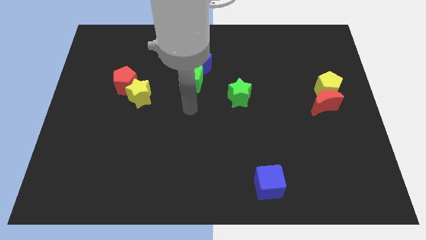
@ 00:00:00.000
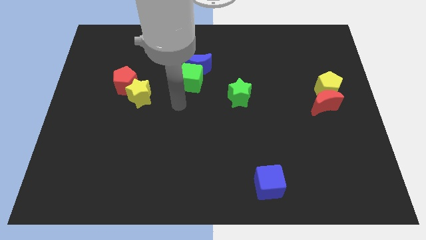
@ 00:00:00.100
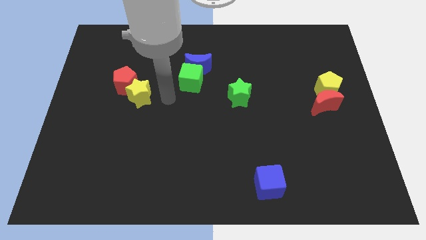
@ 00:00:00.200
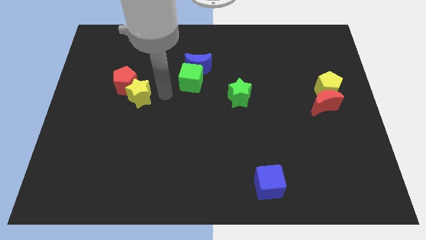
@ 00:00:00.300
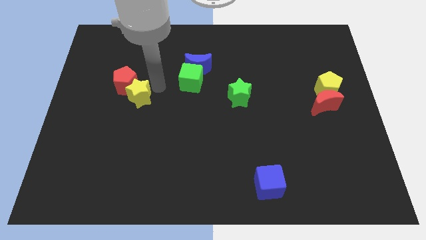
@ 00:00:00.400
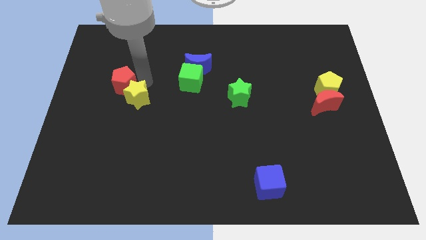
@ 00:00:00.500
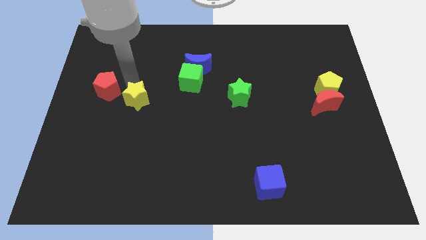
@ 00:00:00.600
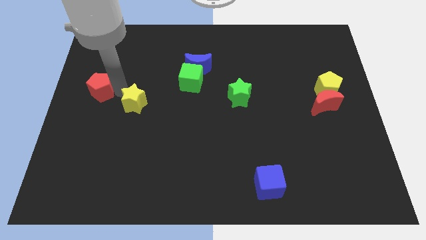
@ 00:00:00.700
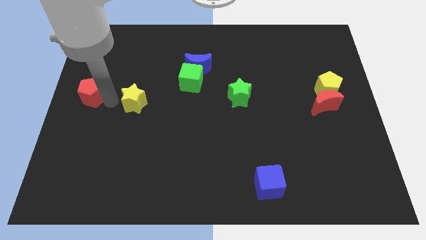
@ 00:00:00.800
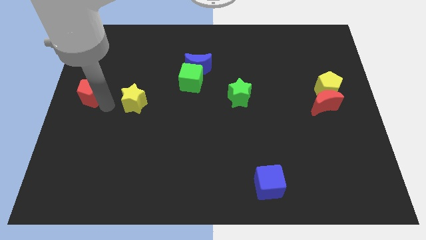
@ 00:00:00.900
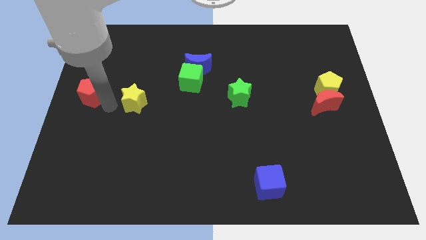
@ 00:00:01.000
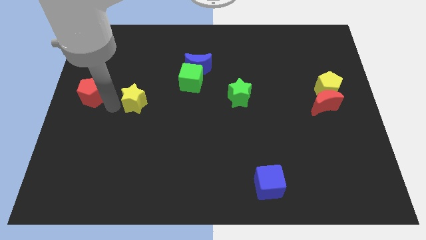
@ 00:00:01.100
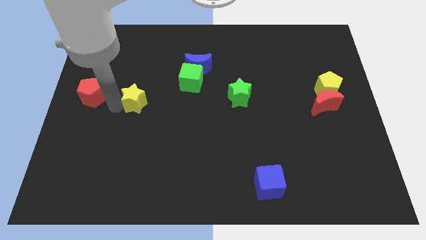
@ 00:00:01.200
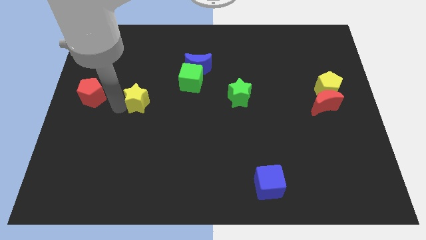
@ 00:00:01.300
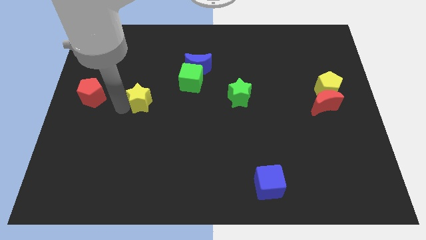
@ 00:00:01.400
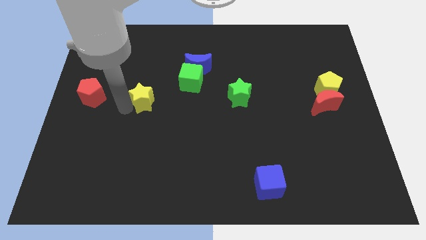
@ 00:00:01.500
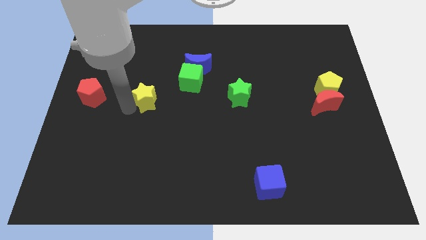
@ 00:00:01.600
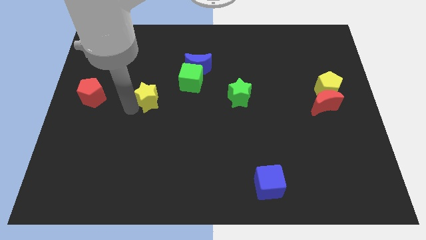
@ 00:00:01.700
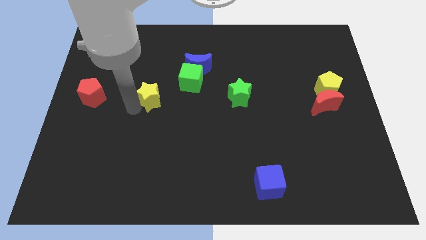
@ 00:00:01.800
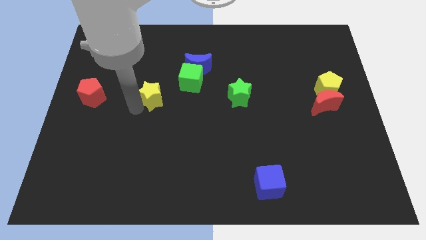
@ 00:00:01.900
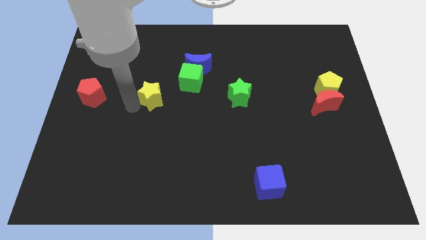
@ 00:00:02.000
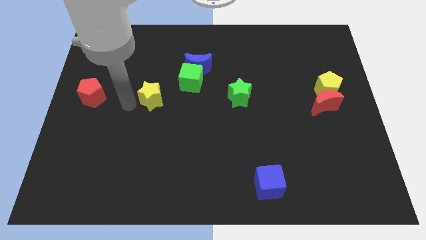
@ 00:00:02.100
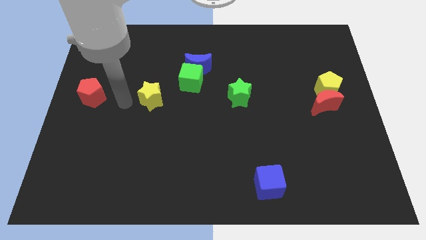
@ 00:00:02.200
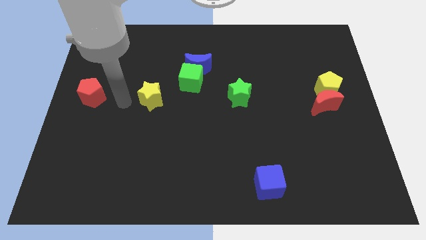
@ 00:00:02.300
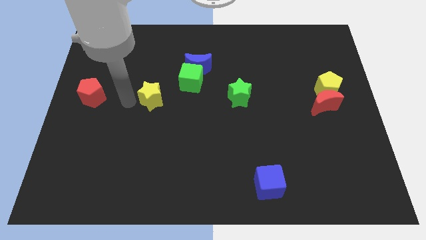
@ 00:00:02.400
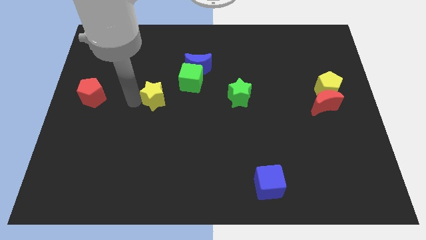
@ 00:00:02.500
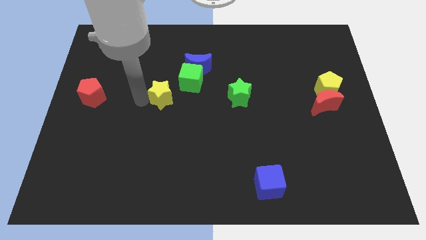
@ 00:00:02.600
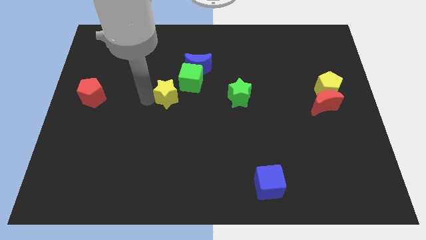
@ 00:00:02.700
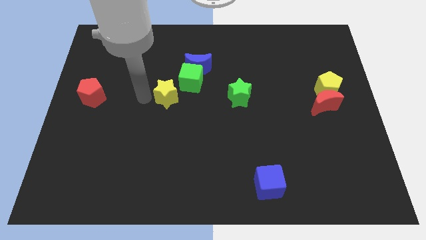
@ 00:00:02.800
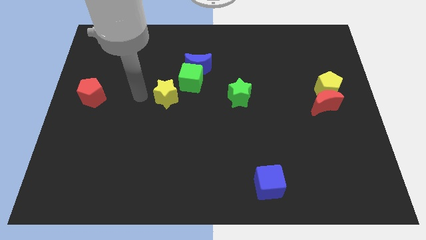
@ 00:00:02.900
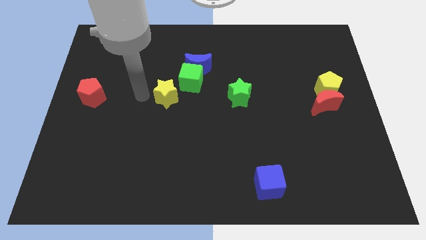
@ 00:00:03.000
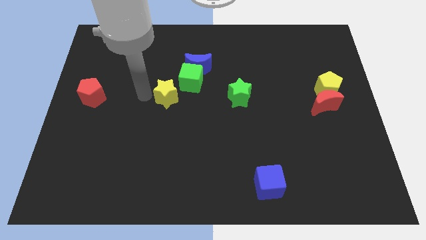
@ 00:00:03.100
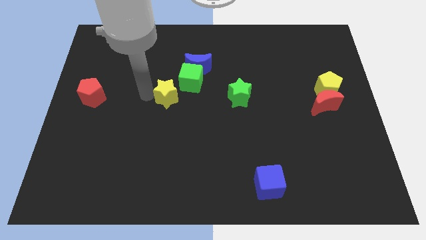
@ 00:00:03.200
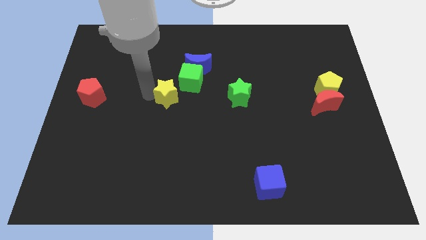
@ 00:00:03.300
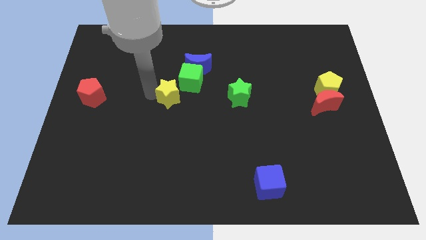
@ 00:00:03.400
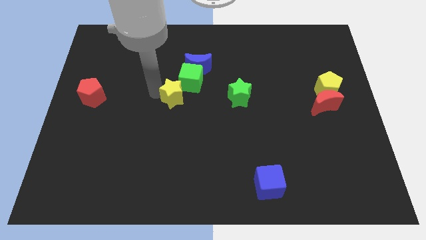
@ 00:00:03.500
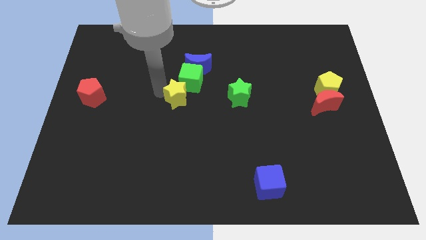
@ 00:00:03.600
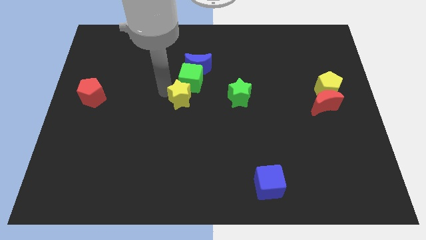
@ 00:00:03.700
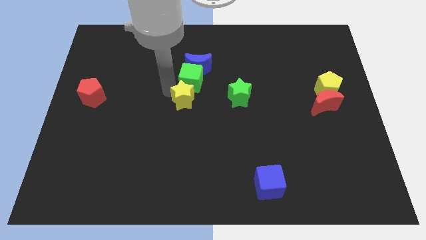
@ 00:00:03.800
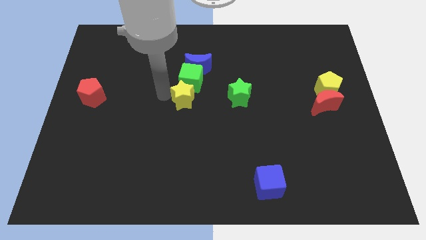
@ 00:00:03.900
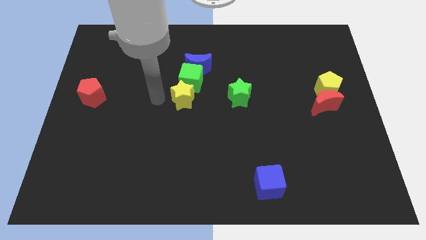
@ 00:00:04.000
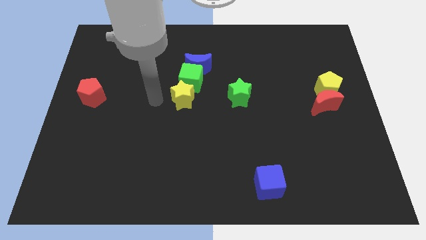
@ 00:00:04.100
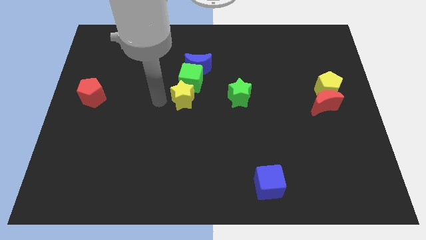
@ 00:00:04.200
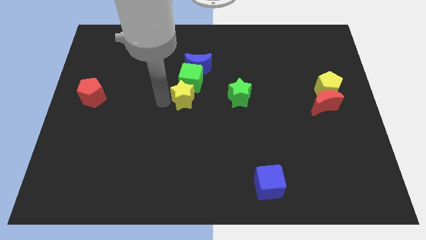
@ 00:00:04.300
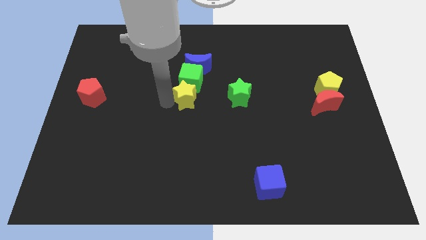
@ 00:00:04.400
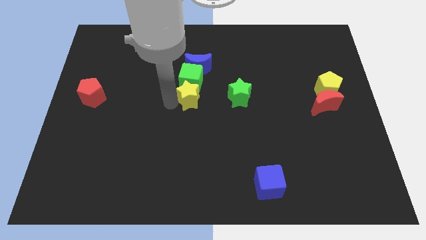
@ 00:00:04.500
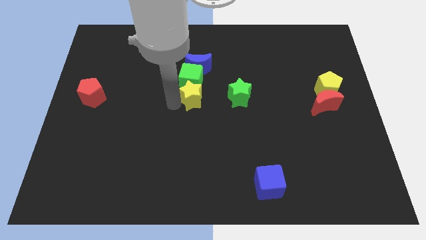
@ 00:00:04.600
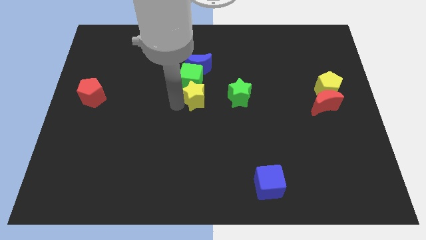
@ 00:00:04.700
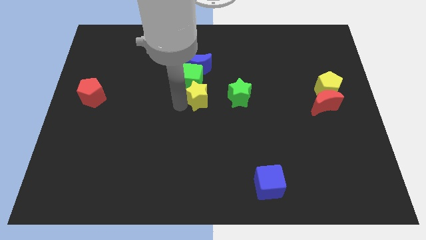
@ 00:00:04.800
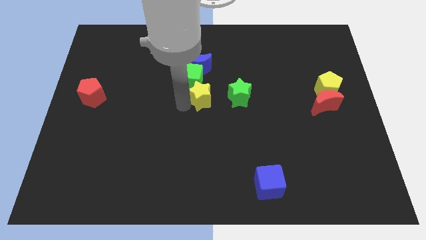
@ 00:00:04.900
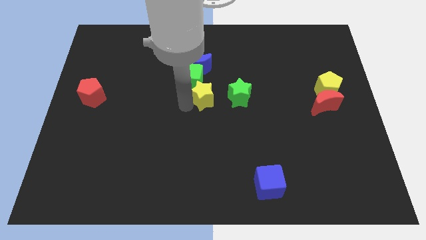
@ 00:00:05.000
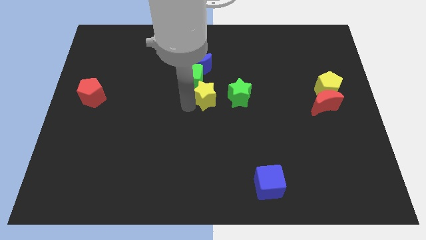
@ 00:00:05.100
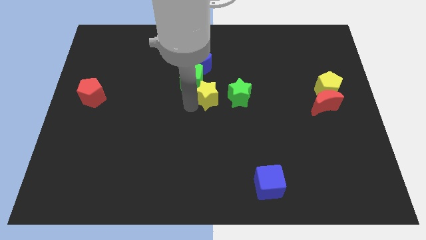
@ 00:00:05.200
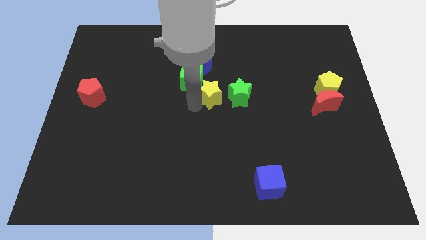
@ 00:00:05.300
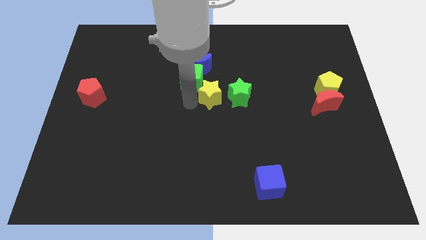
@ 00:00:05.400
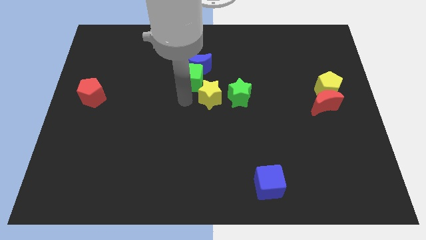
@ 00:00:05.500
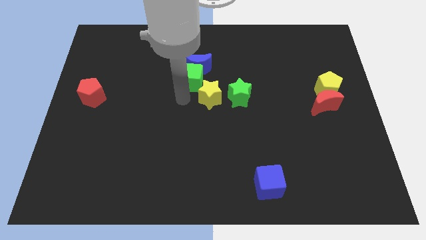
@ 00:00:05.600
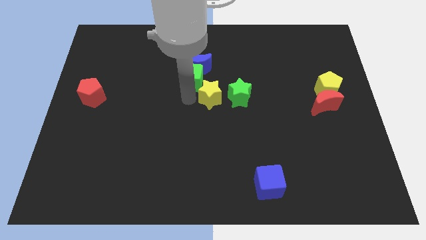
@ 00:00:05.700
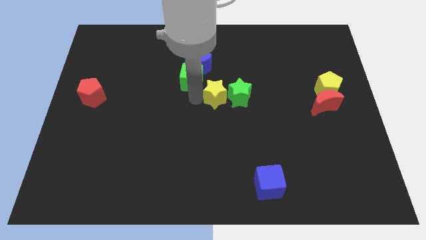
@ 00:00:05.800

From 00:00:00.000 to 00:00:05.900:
put the yellow star towards the green star

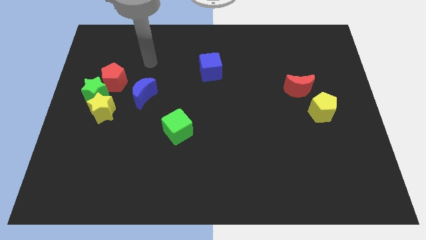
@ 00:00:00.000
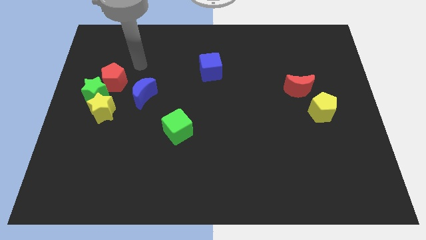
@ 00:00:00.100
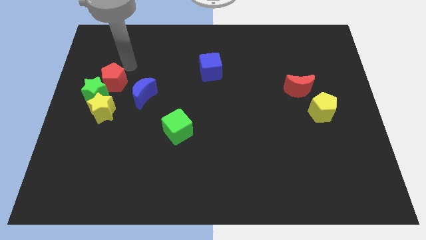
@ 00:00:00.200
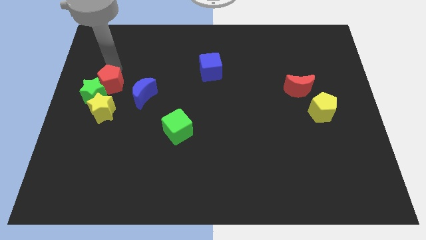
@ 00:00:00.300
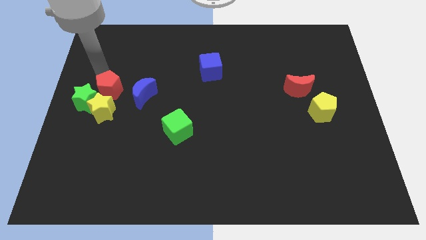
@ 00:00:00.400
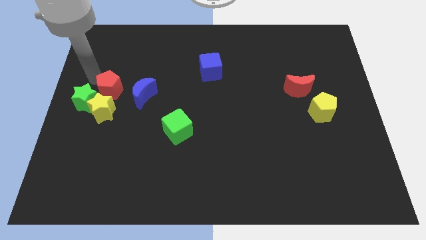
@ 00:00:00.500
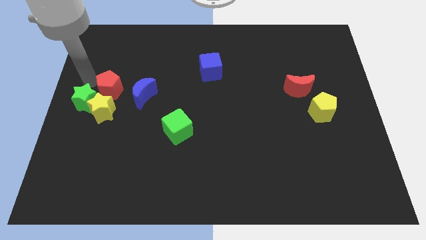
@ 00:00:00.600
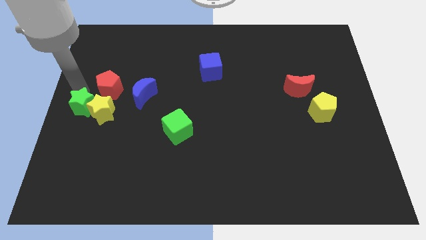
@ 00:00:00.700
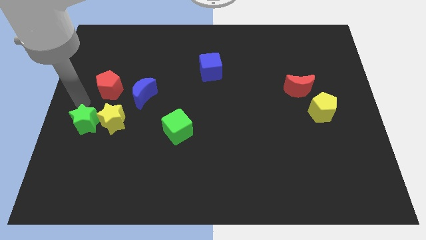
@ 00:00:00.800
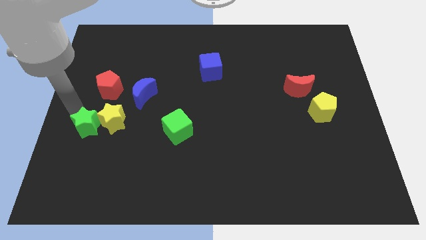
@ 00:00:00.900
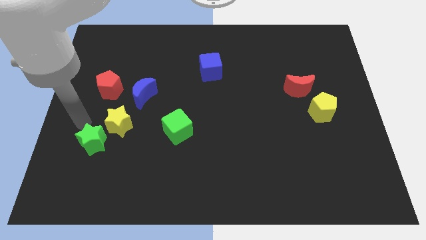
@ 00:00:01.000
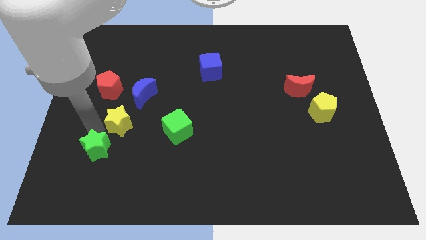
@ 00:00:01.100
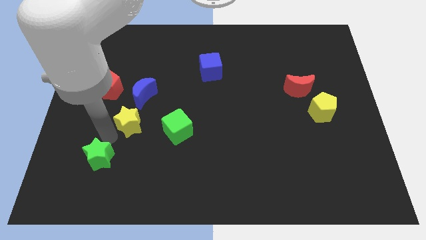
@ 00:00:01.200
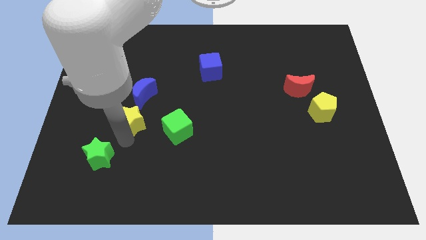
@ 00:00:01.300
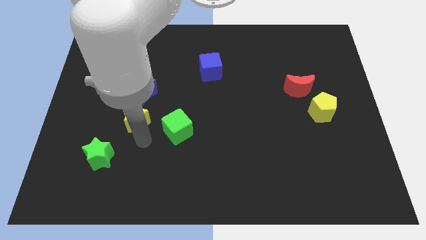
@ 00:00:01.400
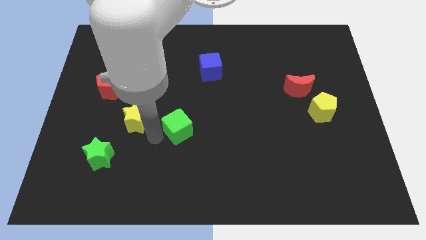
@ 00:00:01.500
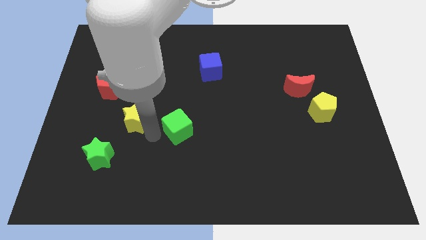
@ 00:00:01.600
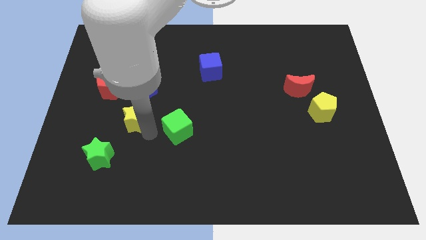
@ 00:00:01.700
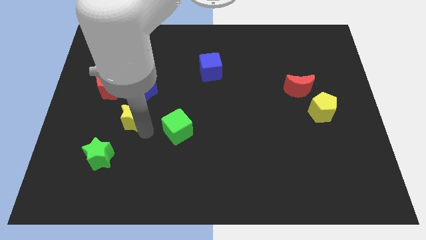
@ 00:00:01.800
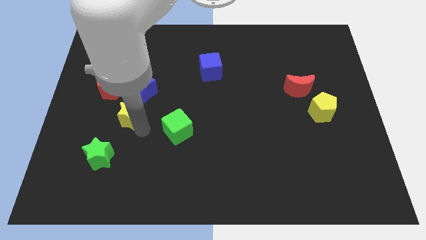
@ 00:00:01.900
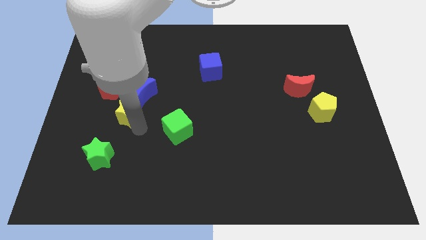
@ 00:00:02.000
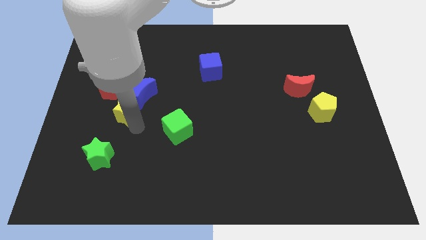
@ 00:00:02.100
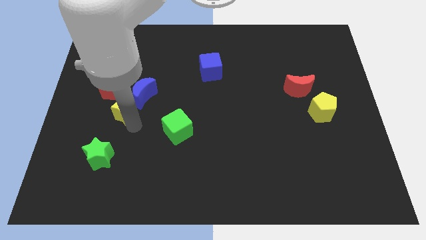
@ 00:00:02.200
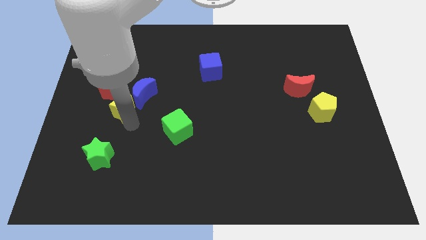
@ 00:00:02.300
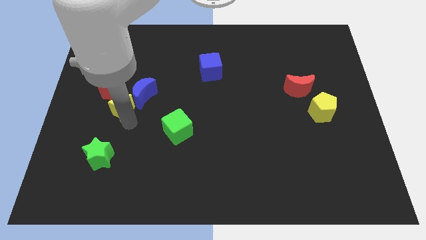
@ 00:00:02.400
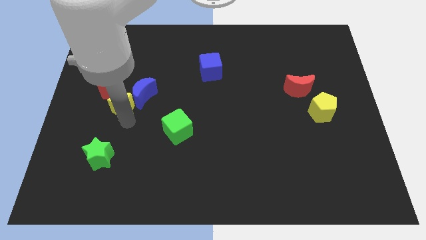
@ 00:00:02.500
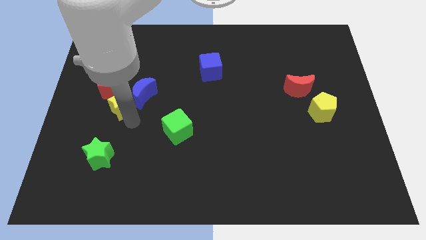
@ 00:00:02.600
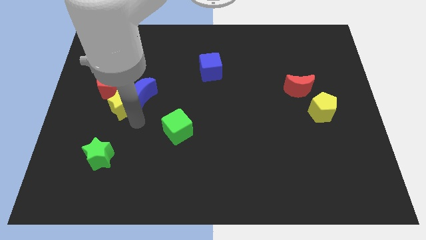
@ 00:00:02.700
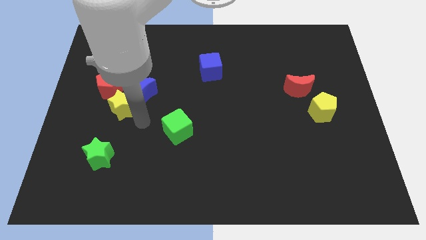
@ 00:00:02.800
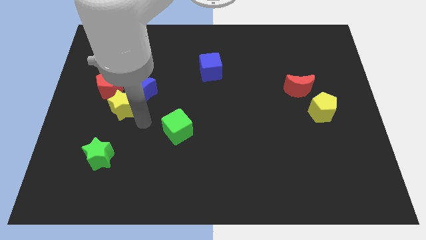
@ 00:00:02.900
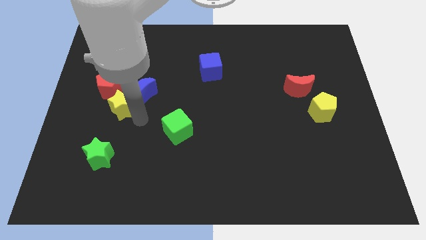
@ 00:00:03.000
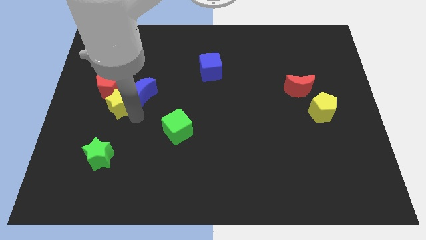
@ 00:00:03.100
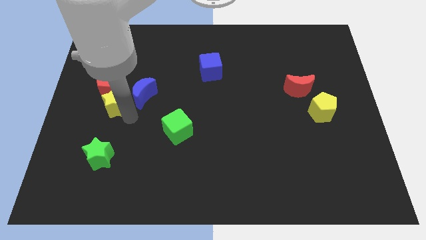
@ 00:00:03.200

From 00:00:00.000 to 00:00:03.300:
push the yellow star to the red pentagon
